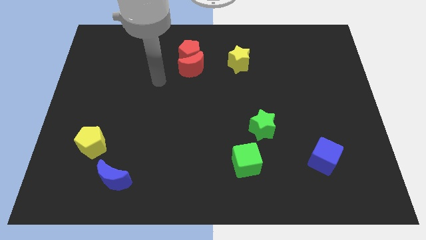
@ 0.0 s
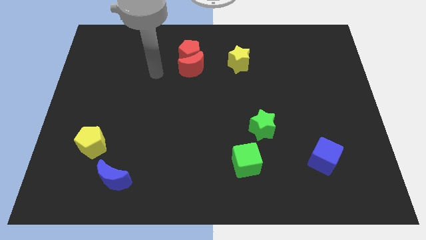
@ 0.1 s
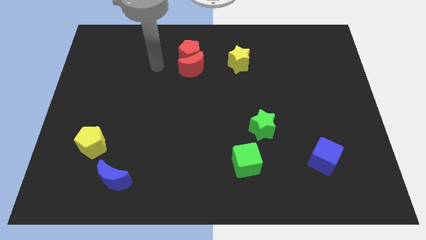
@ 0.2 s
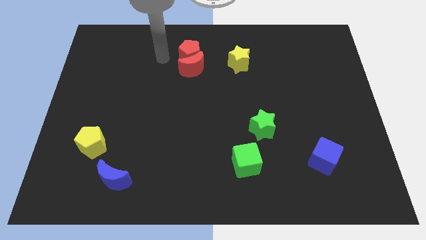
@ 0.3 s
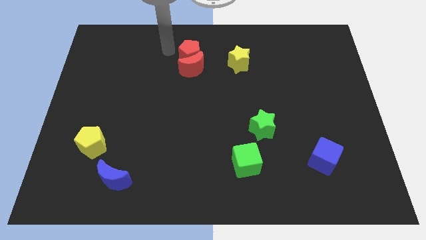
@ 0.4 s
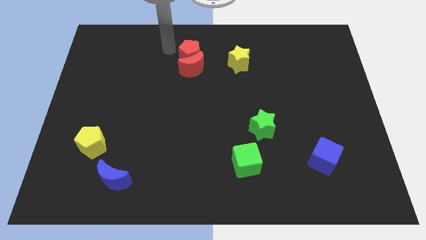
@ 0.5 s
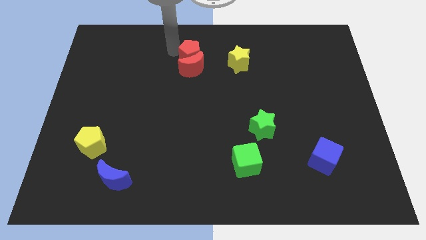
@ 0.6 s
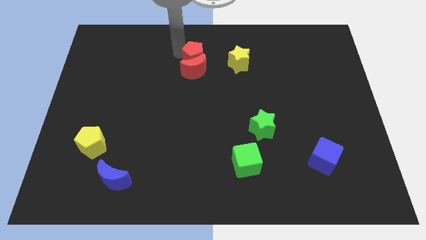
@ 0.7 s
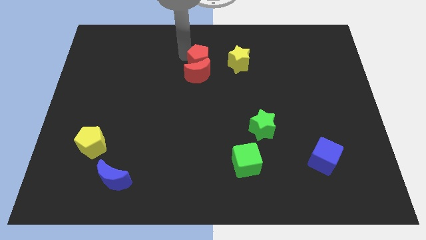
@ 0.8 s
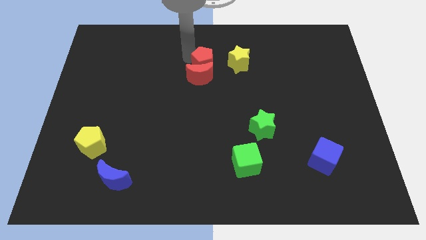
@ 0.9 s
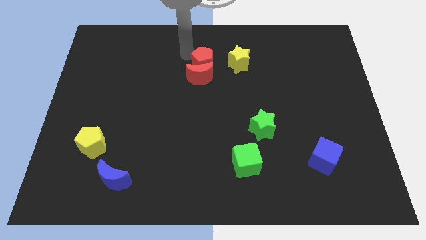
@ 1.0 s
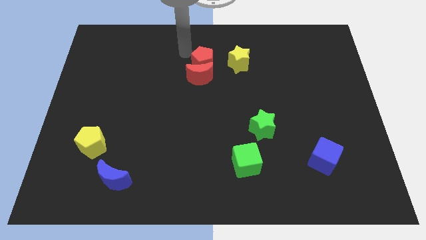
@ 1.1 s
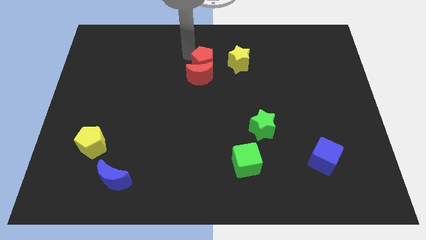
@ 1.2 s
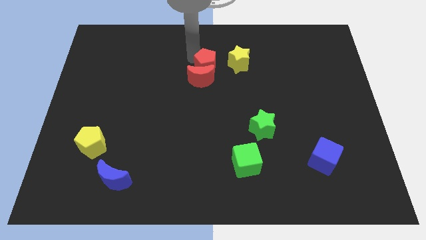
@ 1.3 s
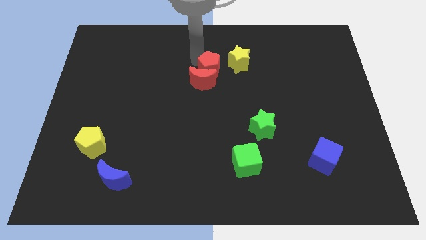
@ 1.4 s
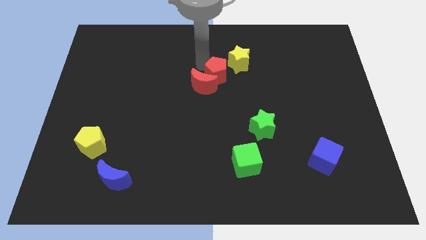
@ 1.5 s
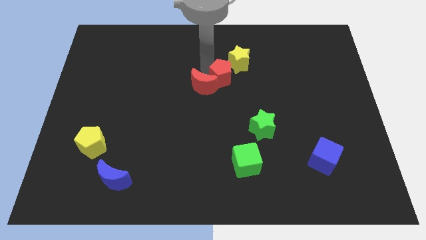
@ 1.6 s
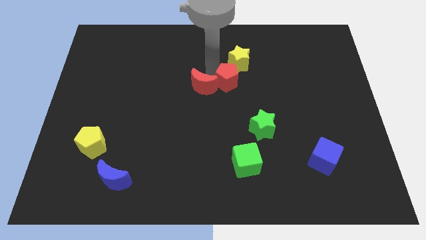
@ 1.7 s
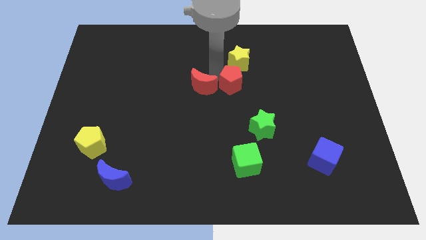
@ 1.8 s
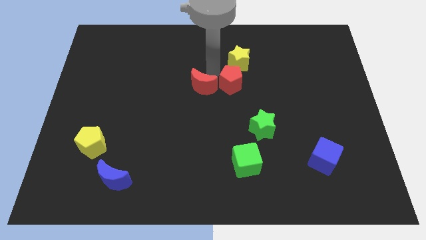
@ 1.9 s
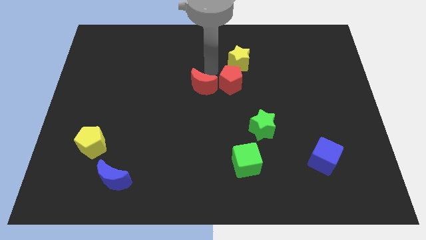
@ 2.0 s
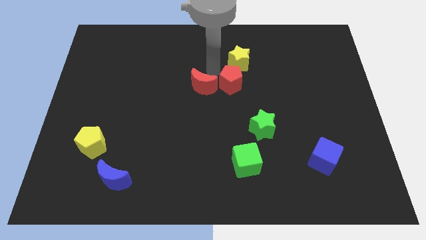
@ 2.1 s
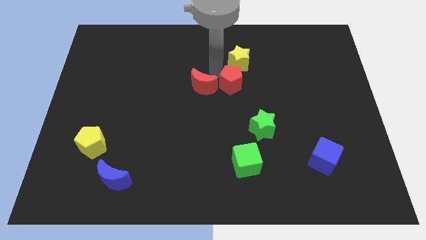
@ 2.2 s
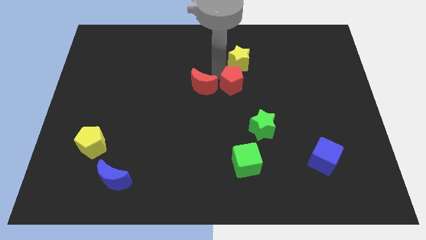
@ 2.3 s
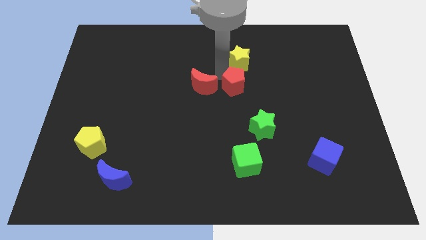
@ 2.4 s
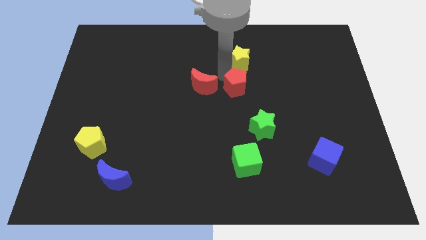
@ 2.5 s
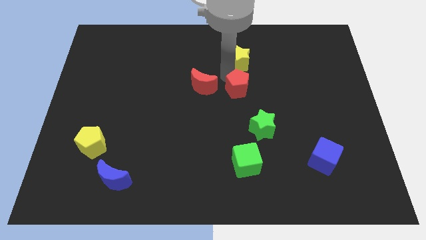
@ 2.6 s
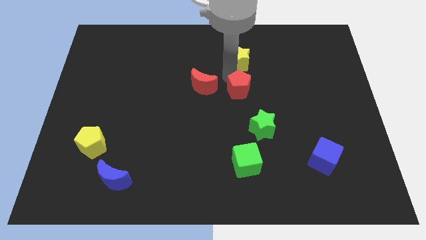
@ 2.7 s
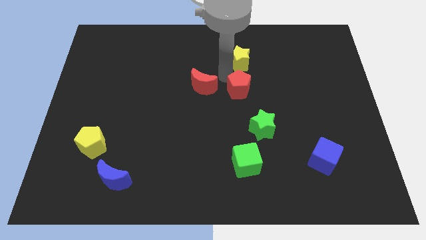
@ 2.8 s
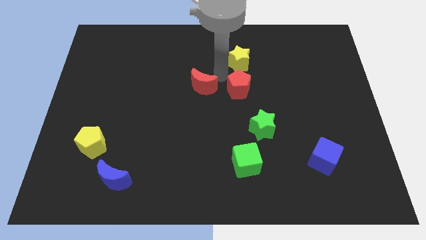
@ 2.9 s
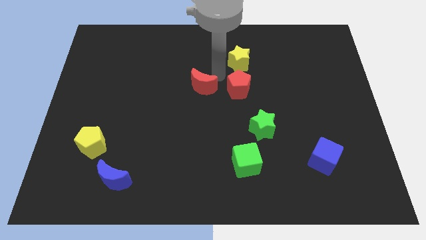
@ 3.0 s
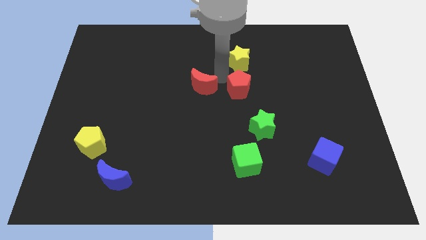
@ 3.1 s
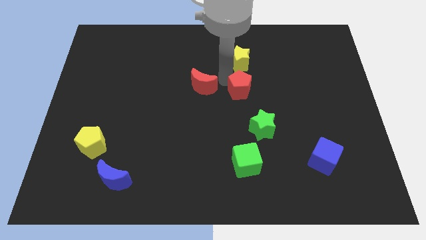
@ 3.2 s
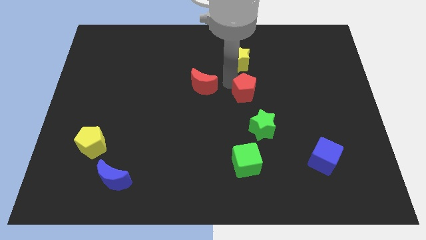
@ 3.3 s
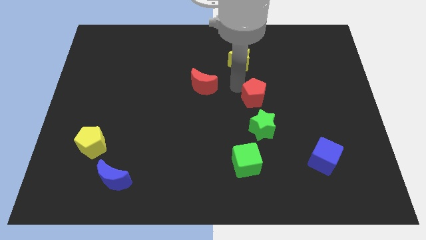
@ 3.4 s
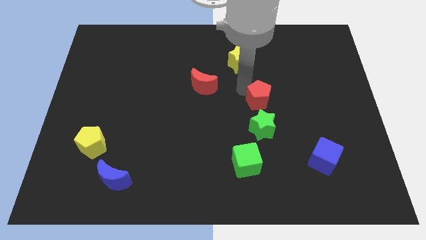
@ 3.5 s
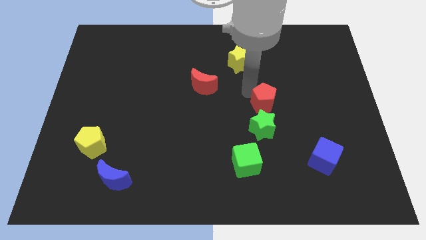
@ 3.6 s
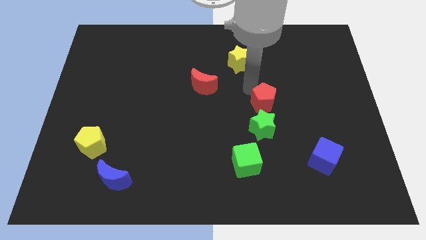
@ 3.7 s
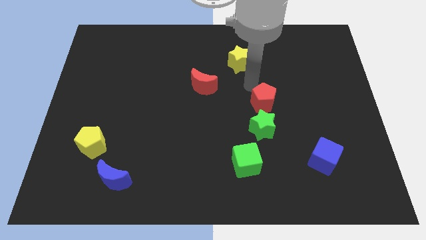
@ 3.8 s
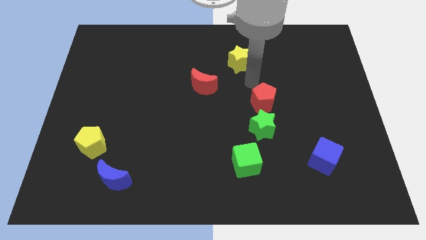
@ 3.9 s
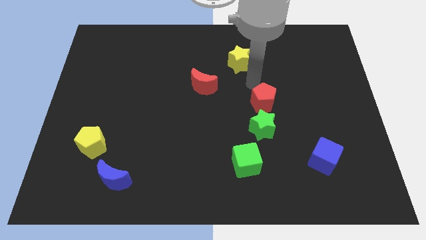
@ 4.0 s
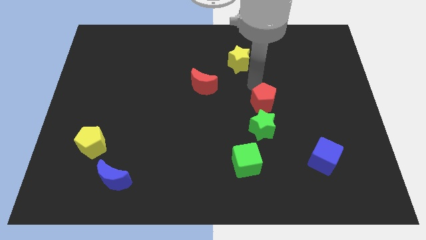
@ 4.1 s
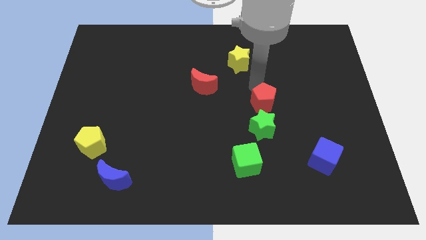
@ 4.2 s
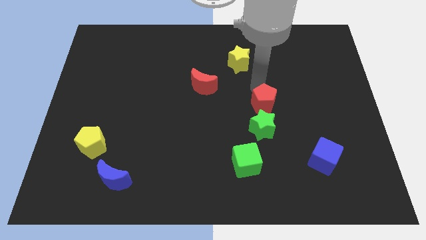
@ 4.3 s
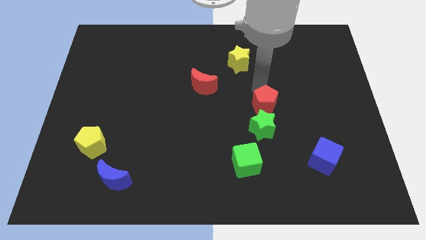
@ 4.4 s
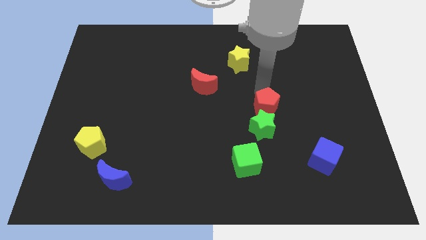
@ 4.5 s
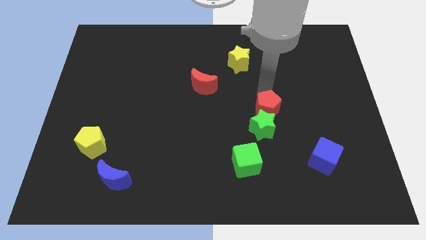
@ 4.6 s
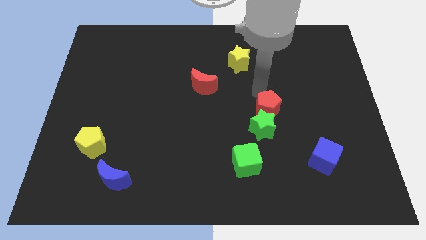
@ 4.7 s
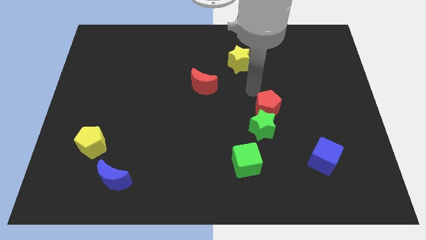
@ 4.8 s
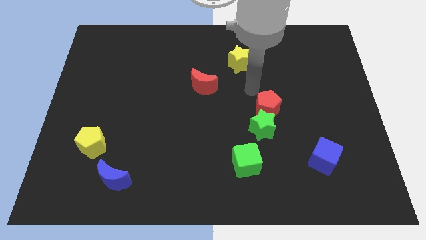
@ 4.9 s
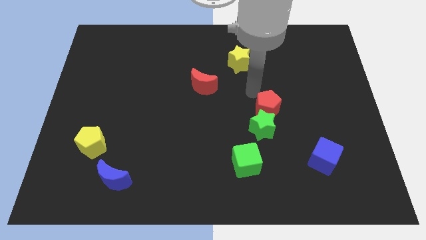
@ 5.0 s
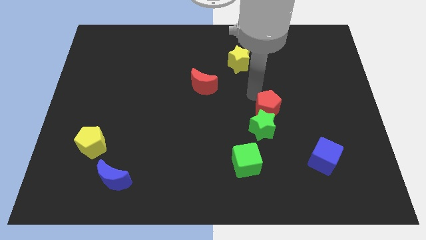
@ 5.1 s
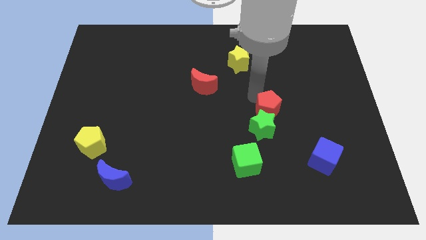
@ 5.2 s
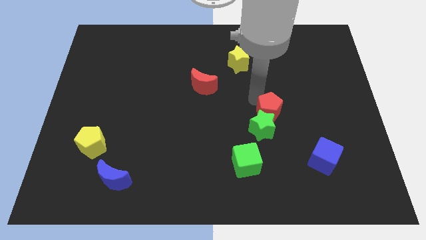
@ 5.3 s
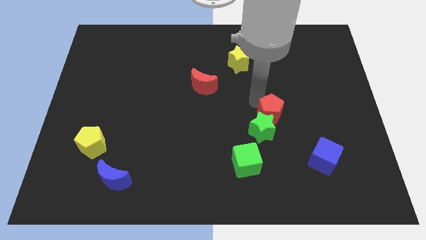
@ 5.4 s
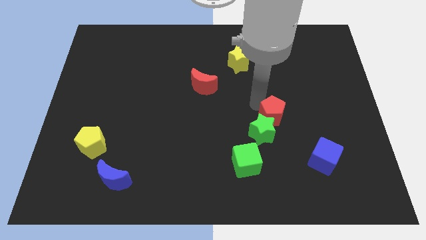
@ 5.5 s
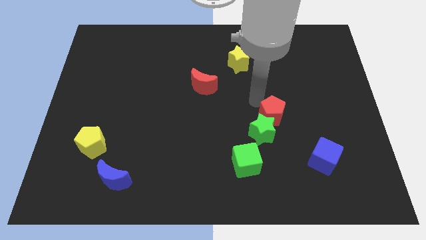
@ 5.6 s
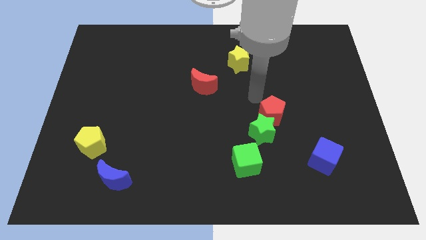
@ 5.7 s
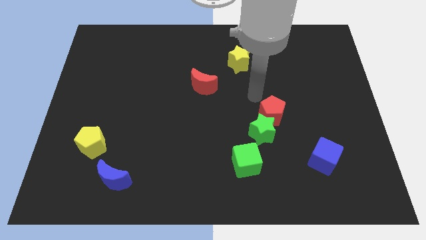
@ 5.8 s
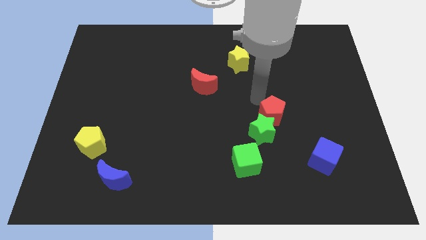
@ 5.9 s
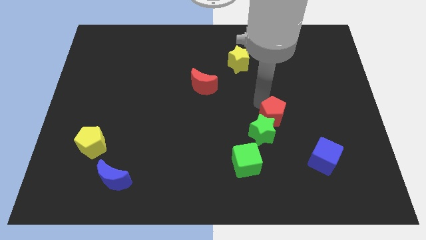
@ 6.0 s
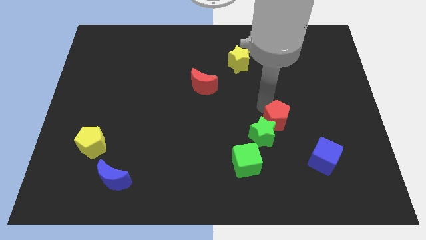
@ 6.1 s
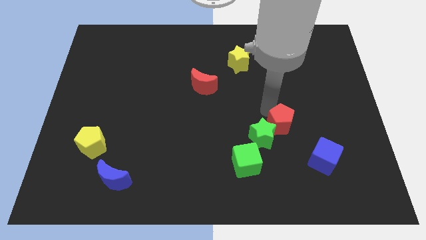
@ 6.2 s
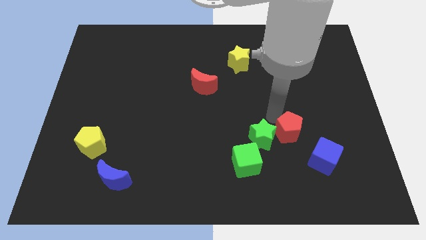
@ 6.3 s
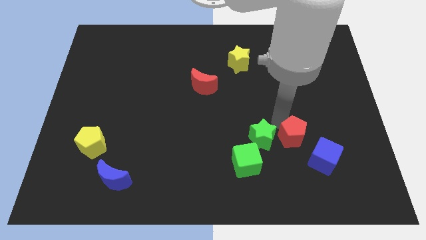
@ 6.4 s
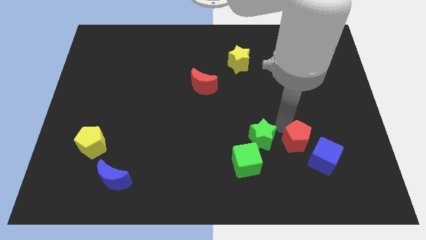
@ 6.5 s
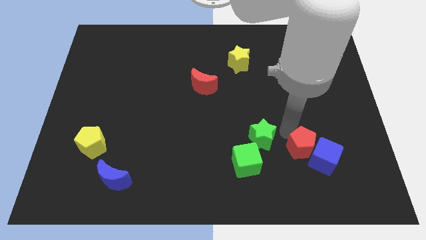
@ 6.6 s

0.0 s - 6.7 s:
move the red pentagon close to the blue cube
